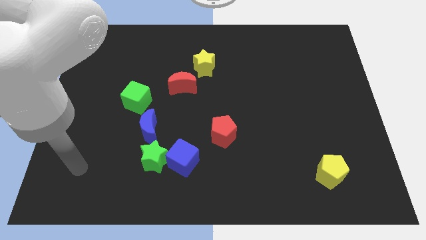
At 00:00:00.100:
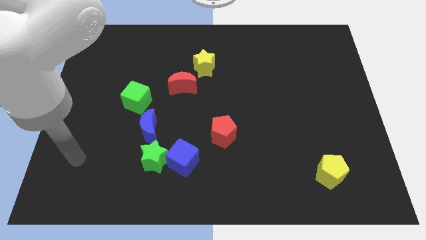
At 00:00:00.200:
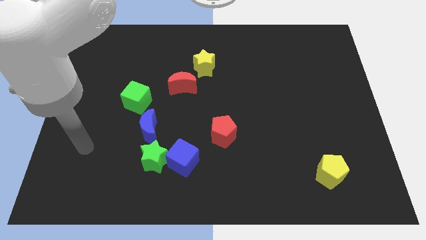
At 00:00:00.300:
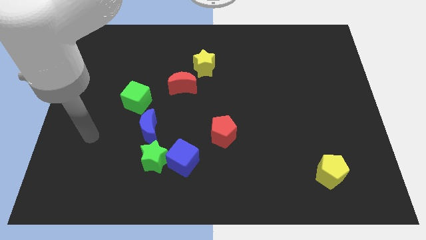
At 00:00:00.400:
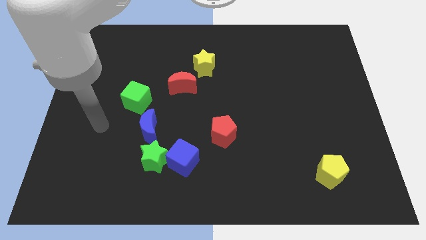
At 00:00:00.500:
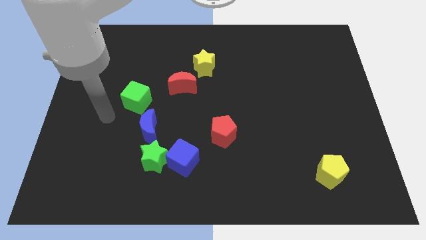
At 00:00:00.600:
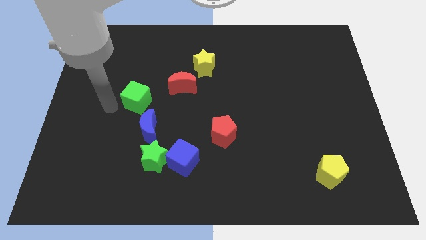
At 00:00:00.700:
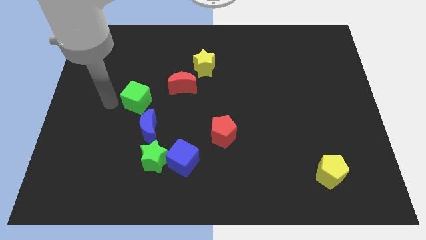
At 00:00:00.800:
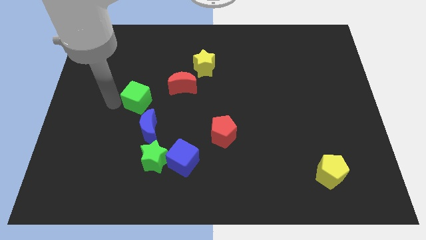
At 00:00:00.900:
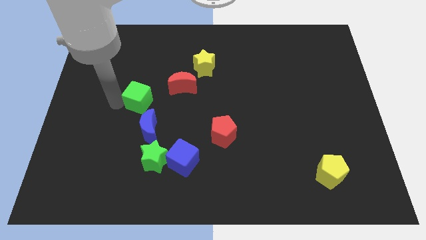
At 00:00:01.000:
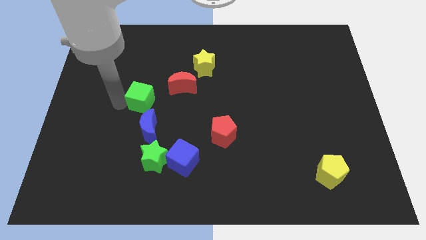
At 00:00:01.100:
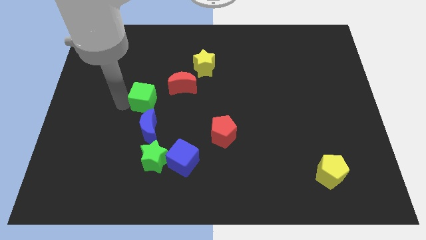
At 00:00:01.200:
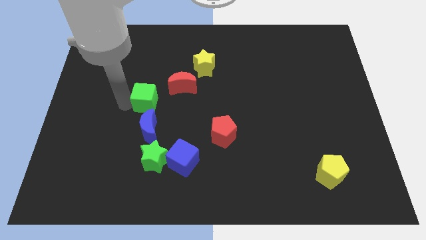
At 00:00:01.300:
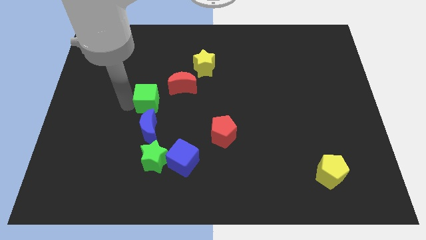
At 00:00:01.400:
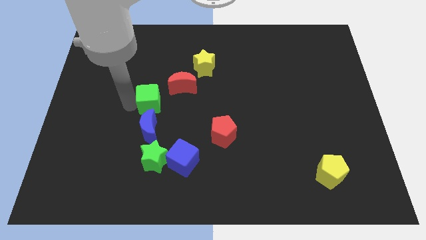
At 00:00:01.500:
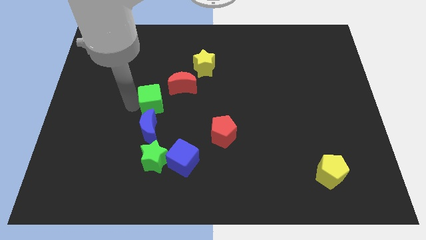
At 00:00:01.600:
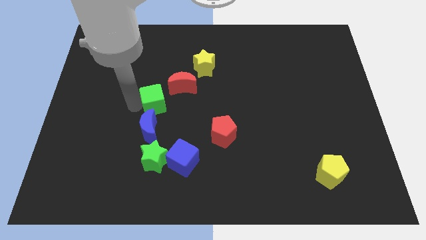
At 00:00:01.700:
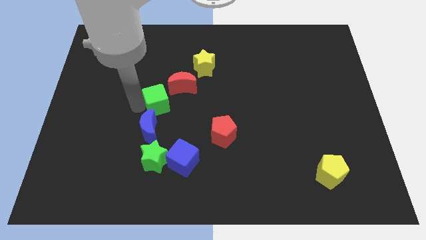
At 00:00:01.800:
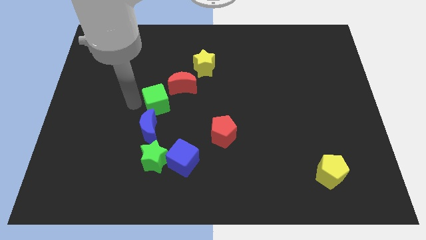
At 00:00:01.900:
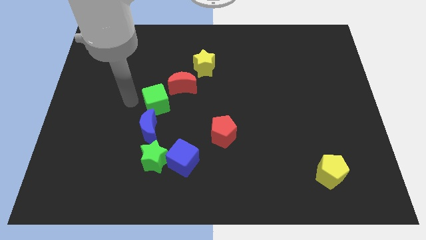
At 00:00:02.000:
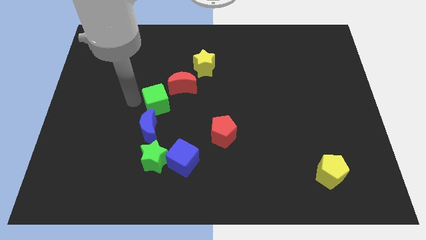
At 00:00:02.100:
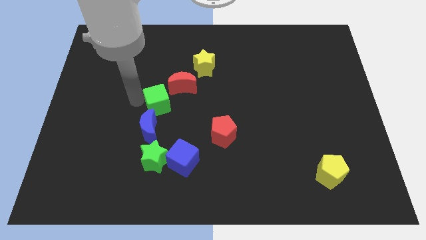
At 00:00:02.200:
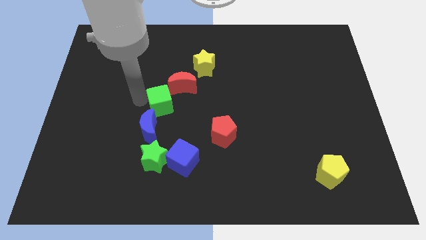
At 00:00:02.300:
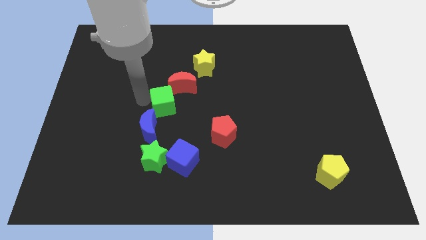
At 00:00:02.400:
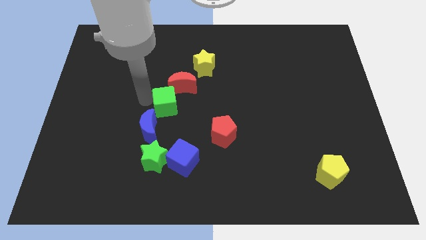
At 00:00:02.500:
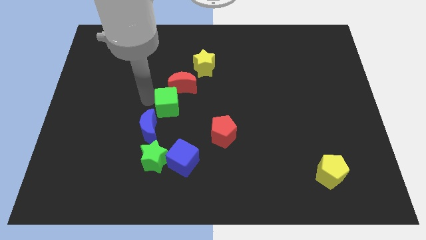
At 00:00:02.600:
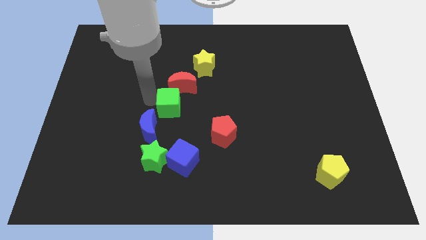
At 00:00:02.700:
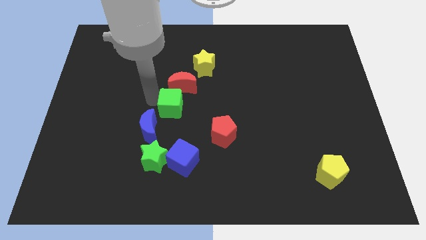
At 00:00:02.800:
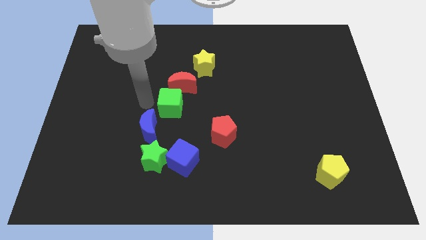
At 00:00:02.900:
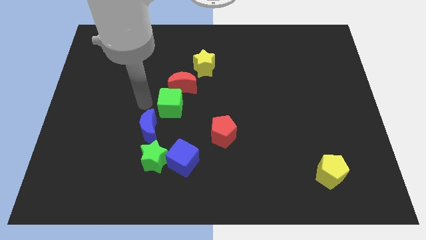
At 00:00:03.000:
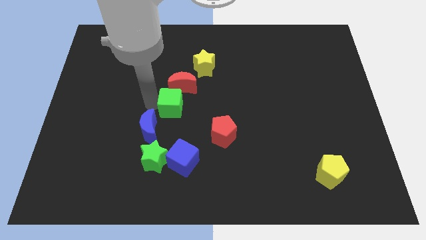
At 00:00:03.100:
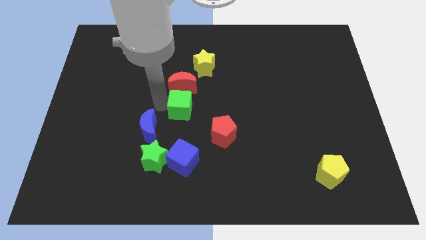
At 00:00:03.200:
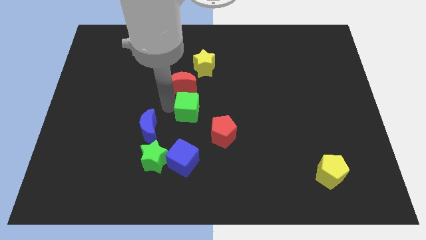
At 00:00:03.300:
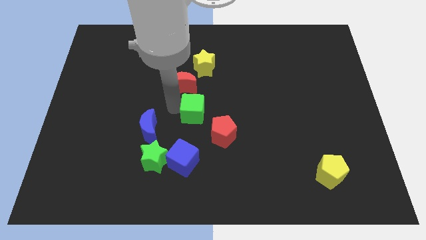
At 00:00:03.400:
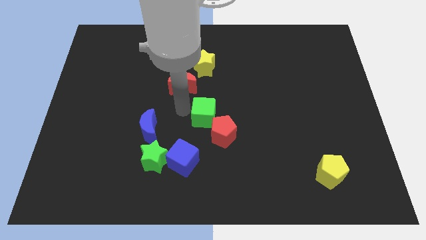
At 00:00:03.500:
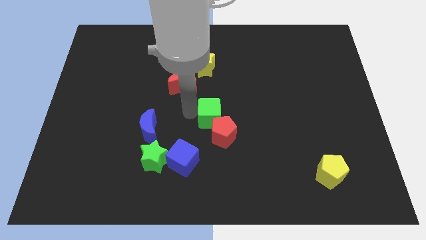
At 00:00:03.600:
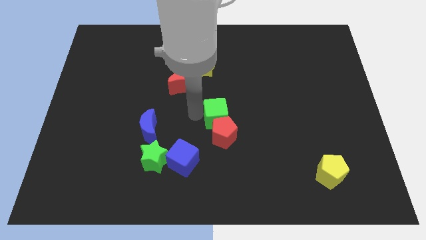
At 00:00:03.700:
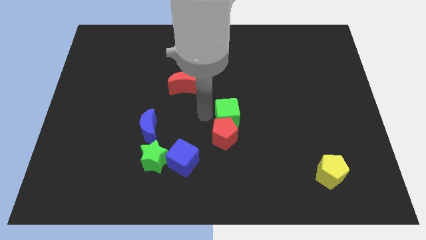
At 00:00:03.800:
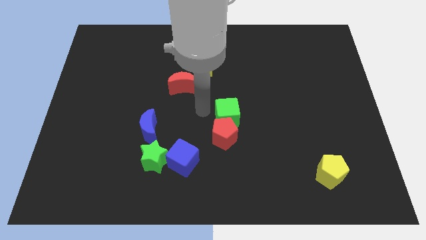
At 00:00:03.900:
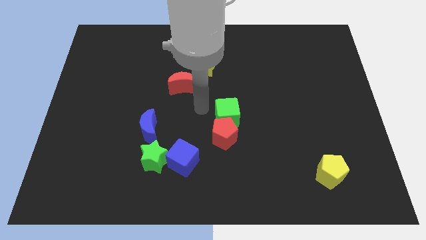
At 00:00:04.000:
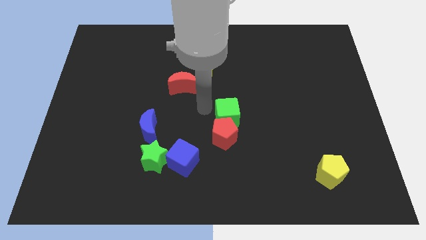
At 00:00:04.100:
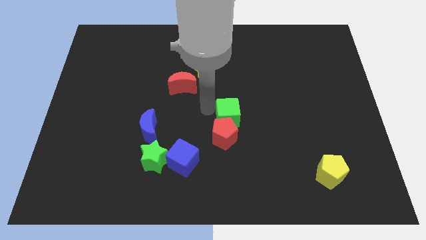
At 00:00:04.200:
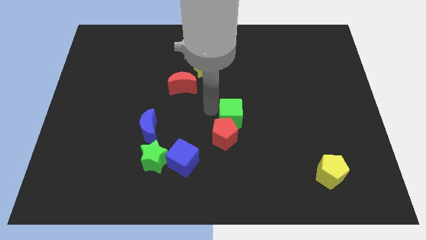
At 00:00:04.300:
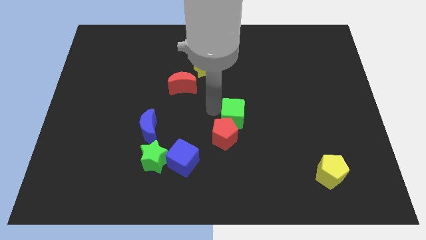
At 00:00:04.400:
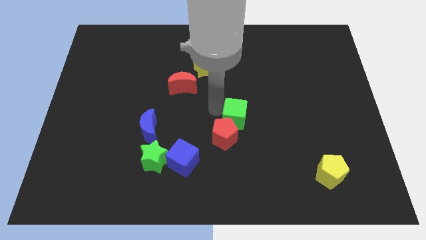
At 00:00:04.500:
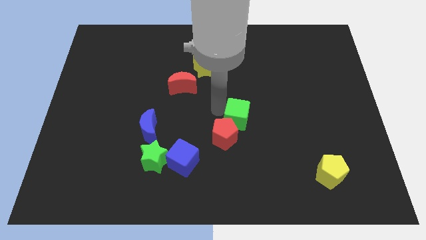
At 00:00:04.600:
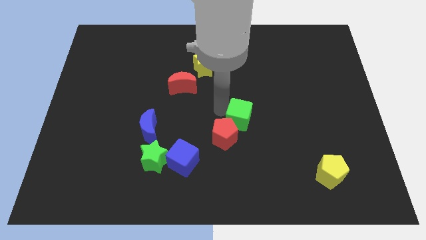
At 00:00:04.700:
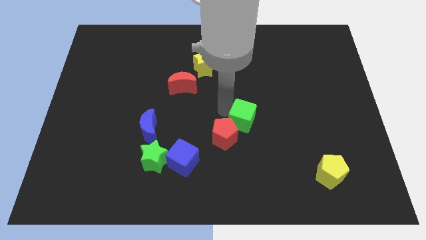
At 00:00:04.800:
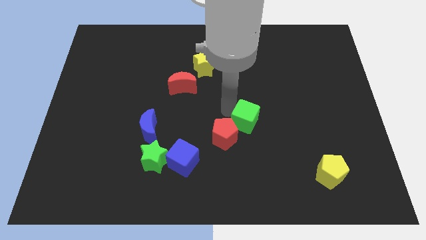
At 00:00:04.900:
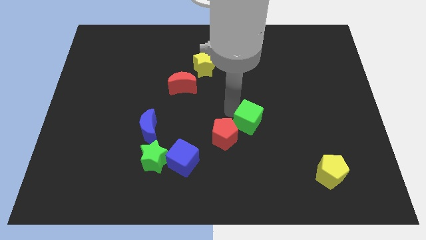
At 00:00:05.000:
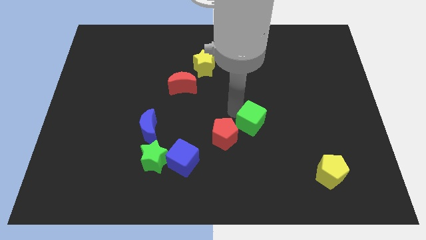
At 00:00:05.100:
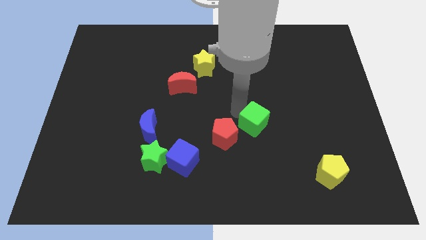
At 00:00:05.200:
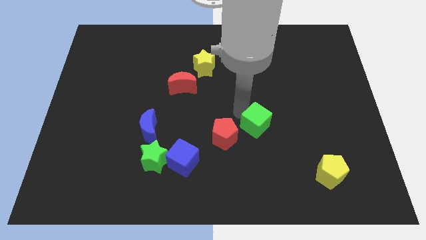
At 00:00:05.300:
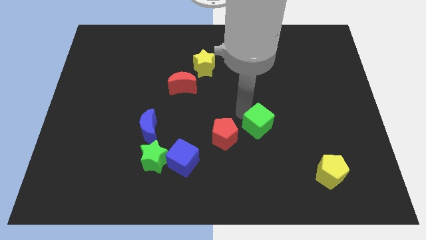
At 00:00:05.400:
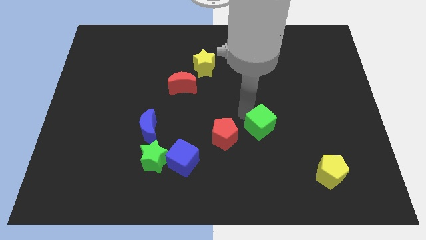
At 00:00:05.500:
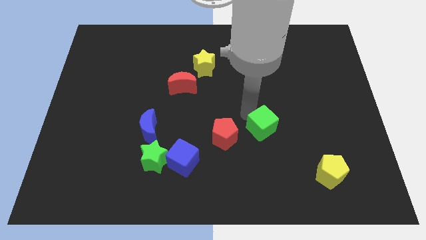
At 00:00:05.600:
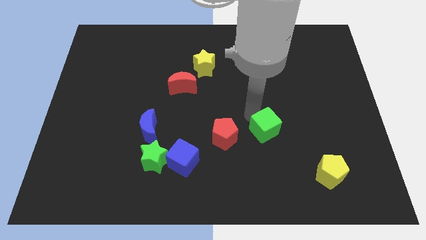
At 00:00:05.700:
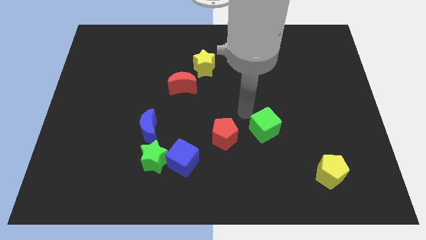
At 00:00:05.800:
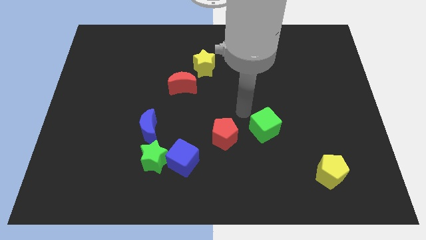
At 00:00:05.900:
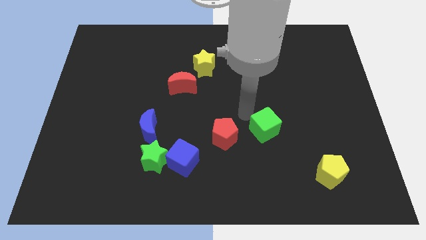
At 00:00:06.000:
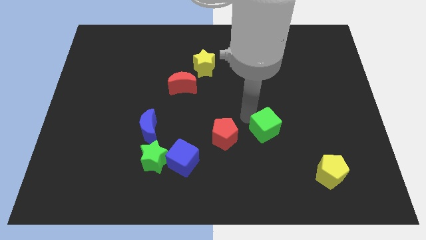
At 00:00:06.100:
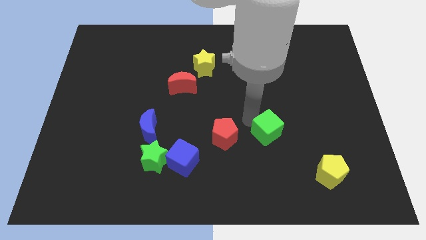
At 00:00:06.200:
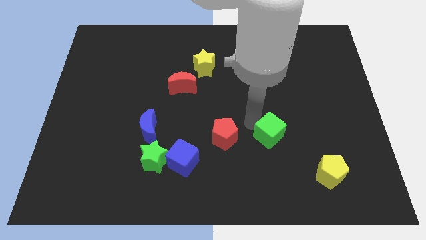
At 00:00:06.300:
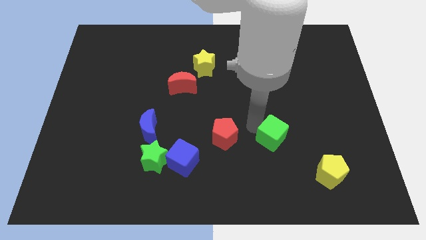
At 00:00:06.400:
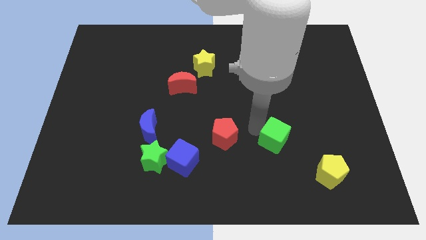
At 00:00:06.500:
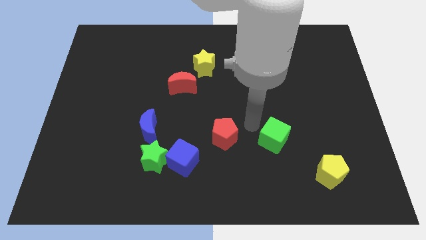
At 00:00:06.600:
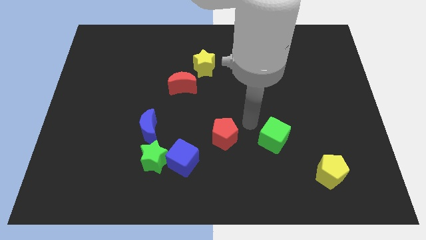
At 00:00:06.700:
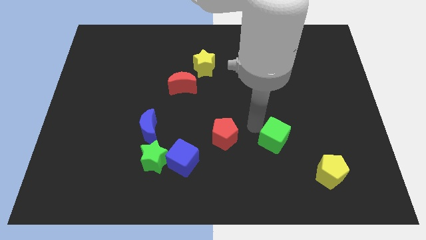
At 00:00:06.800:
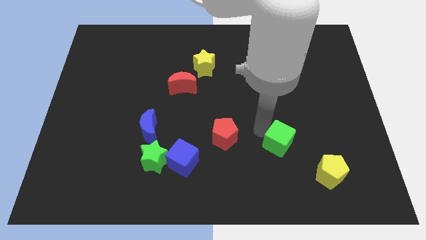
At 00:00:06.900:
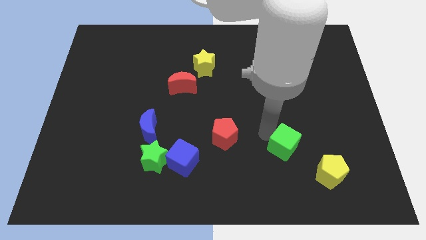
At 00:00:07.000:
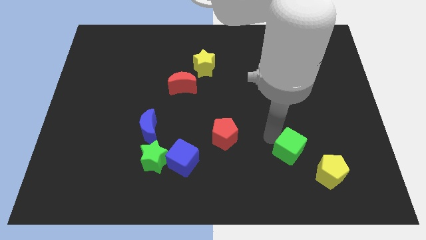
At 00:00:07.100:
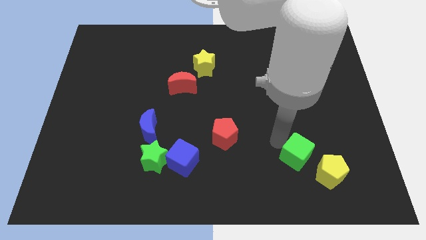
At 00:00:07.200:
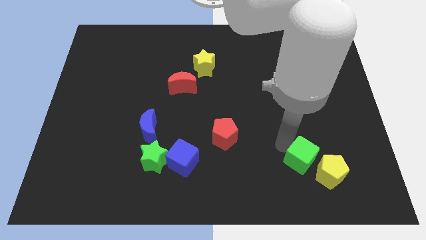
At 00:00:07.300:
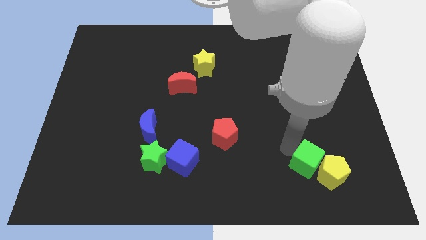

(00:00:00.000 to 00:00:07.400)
put the green cube towards the yellow pentagon
